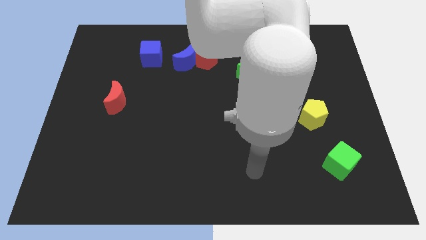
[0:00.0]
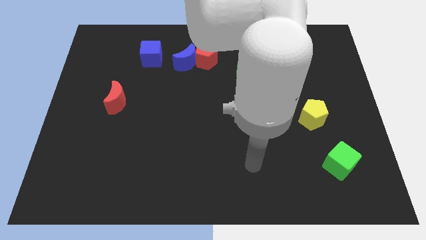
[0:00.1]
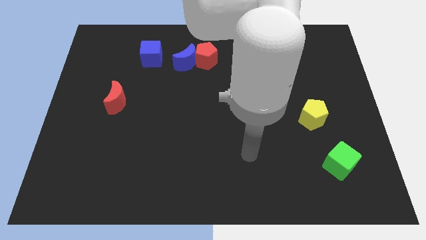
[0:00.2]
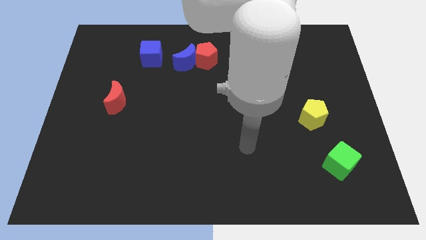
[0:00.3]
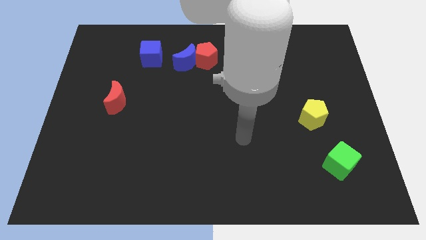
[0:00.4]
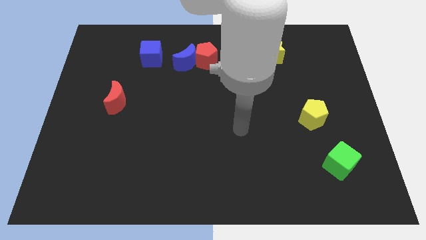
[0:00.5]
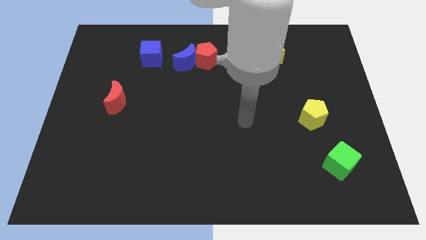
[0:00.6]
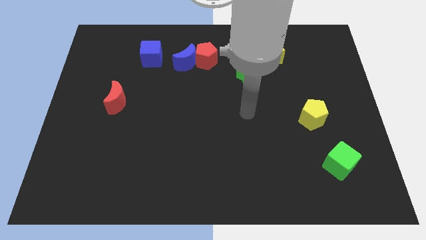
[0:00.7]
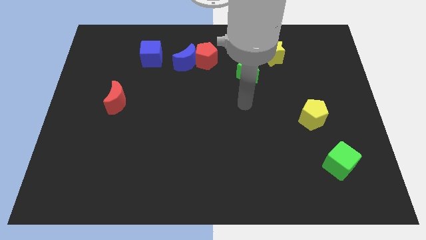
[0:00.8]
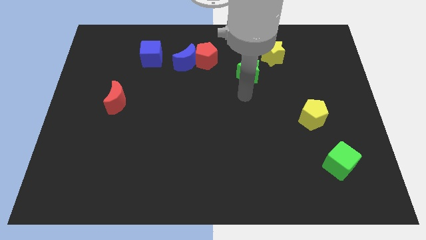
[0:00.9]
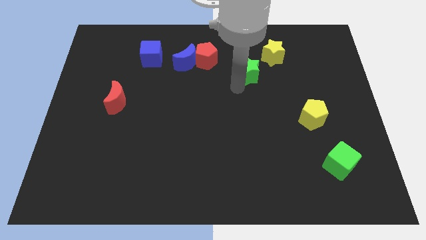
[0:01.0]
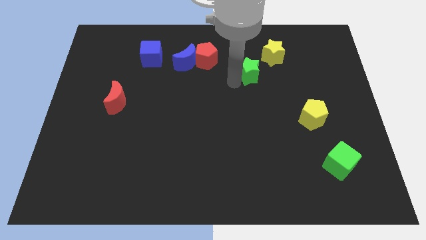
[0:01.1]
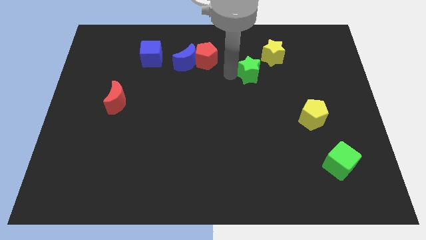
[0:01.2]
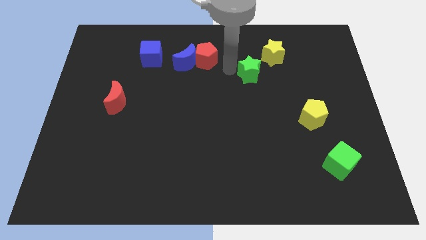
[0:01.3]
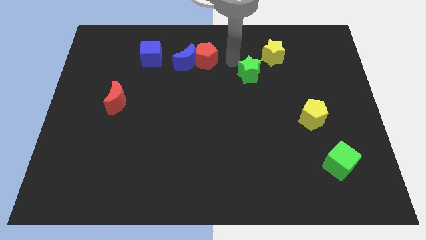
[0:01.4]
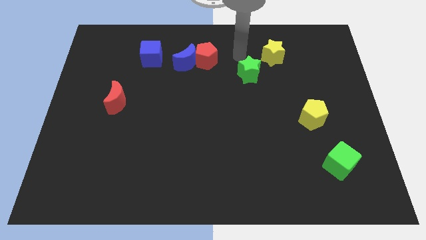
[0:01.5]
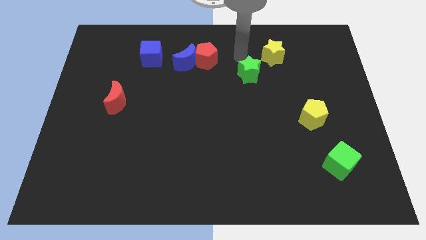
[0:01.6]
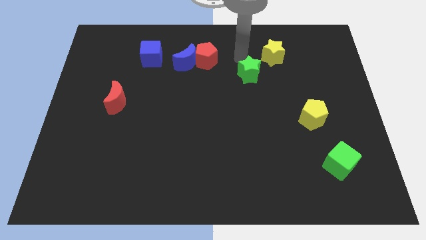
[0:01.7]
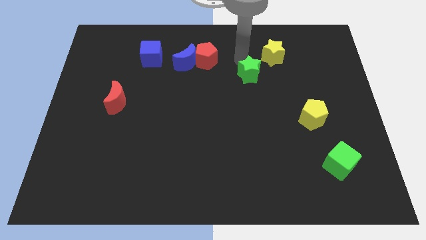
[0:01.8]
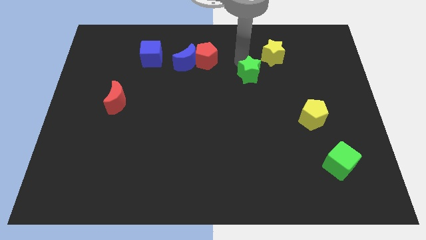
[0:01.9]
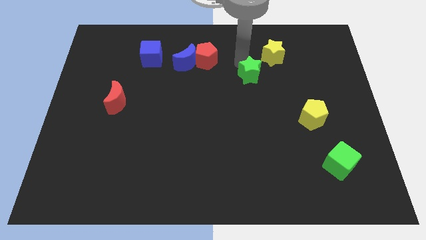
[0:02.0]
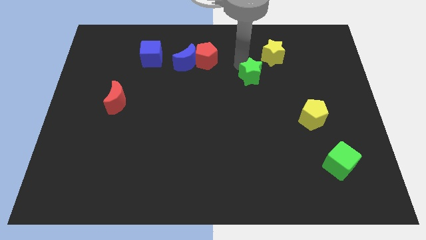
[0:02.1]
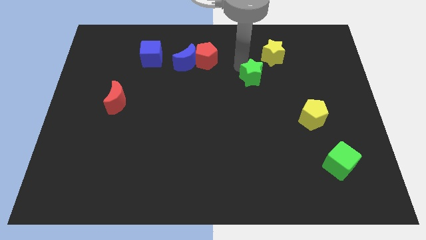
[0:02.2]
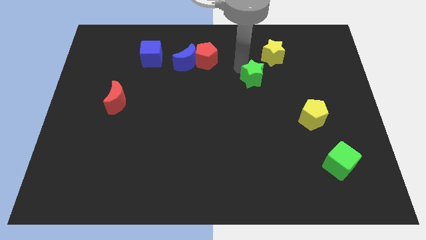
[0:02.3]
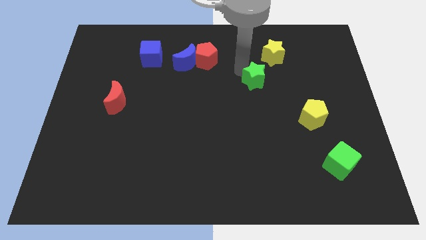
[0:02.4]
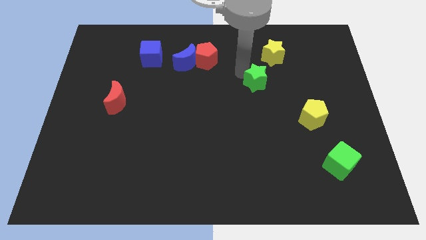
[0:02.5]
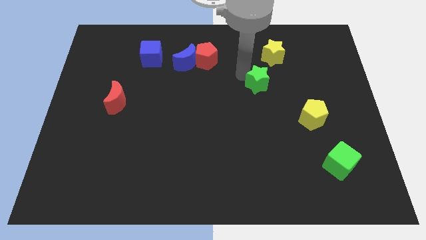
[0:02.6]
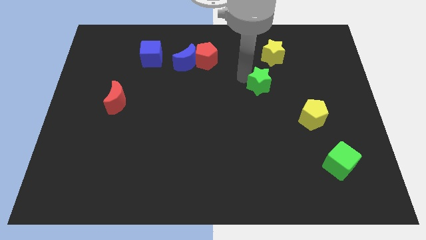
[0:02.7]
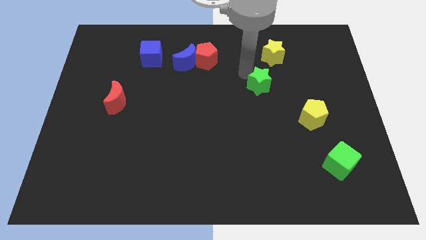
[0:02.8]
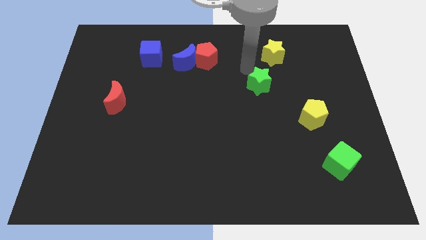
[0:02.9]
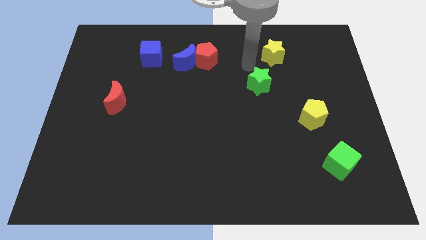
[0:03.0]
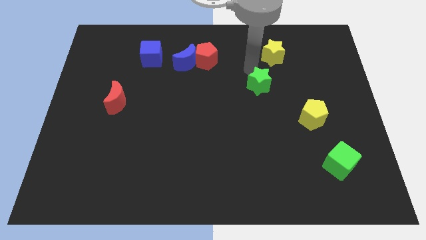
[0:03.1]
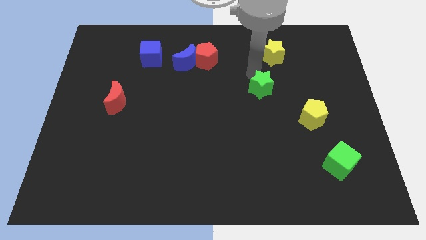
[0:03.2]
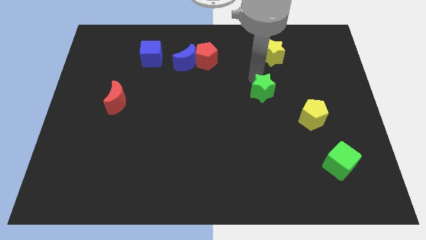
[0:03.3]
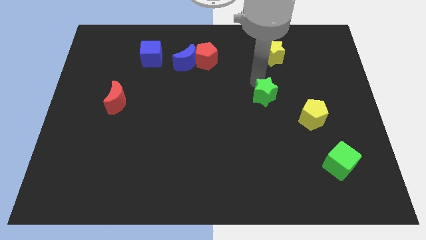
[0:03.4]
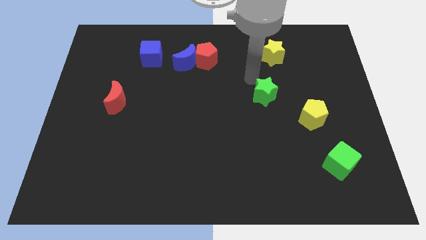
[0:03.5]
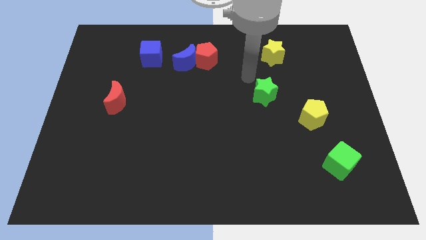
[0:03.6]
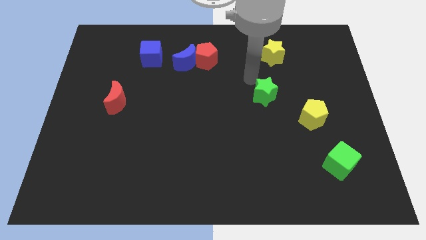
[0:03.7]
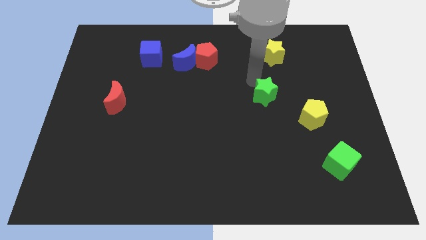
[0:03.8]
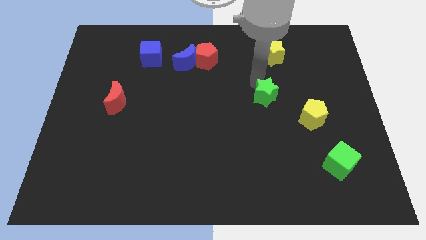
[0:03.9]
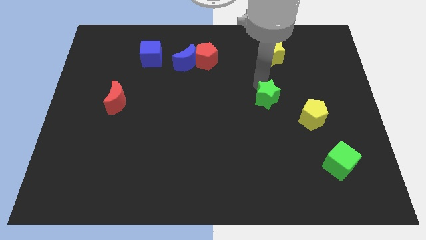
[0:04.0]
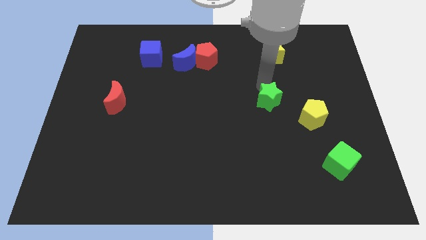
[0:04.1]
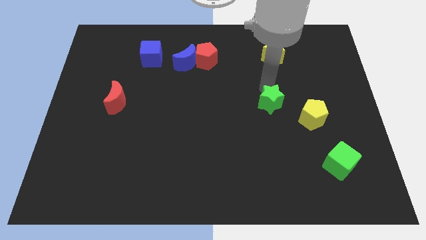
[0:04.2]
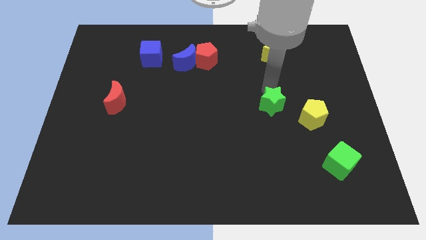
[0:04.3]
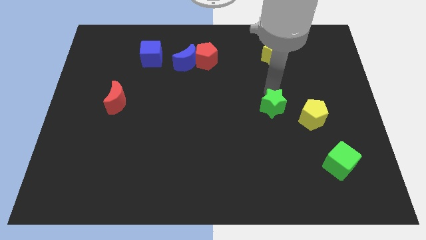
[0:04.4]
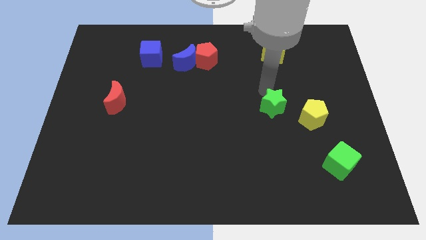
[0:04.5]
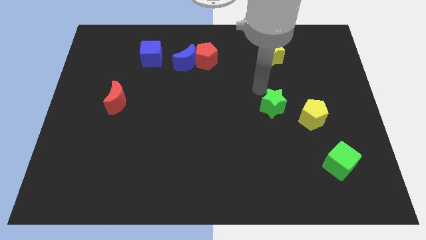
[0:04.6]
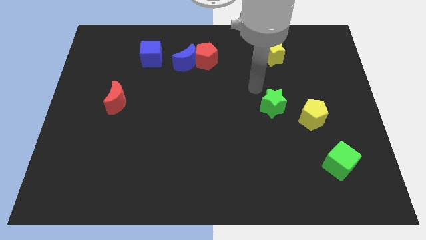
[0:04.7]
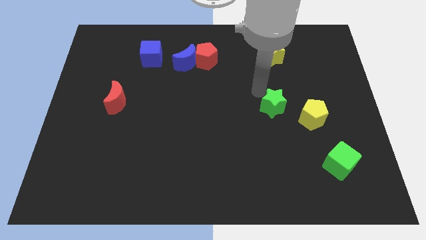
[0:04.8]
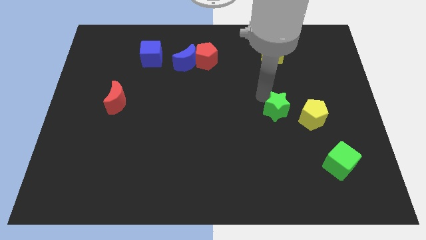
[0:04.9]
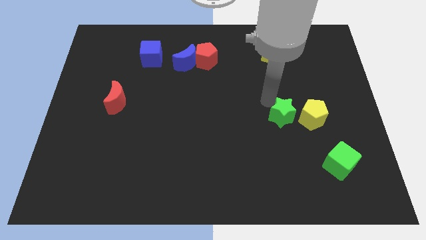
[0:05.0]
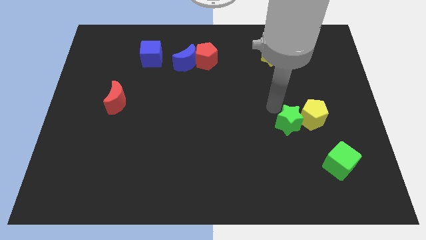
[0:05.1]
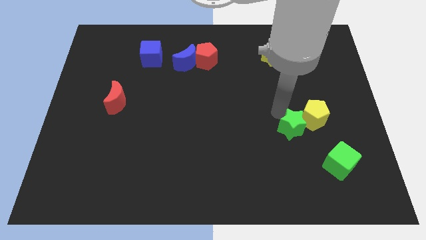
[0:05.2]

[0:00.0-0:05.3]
push the green star to the top left of the green cube
